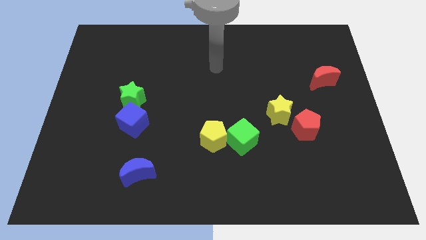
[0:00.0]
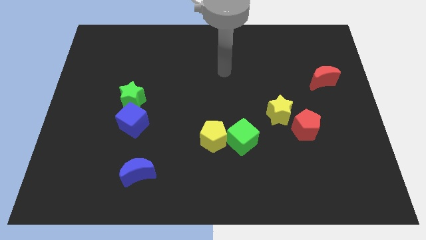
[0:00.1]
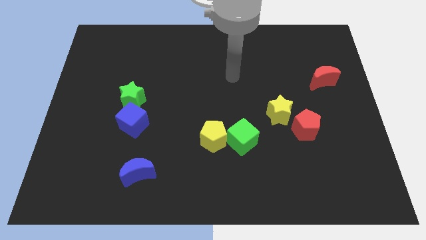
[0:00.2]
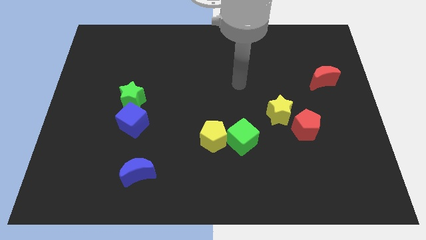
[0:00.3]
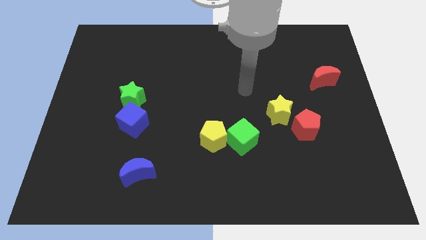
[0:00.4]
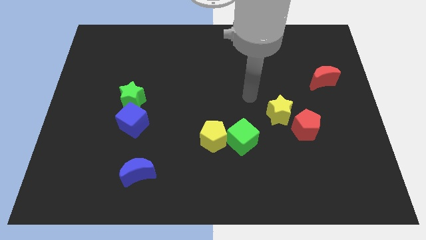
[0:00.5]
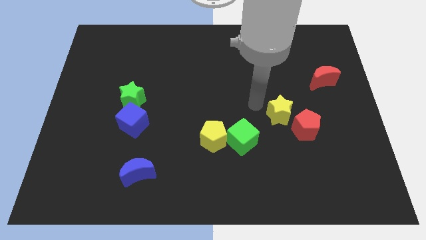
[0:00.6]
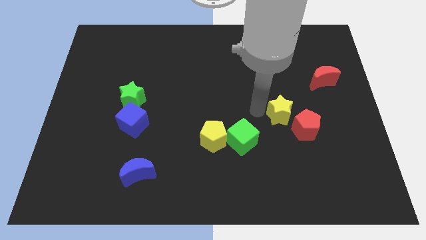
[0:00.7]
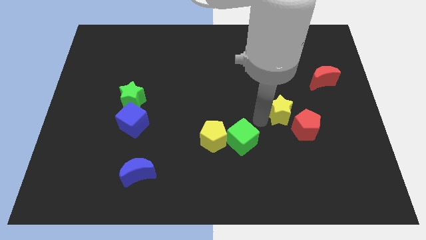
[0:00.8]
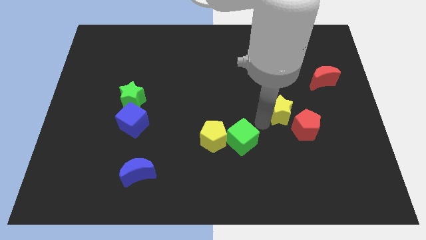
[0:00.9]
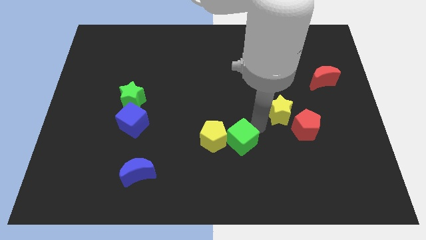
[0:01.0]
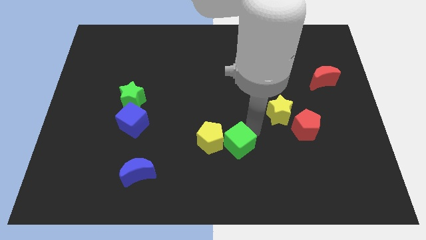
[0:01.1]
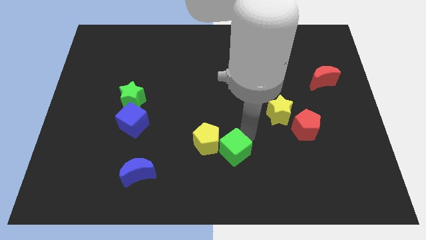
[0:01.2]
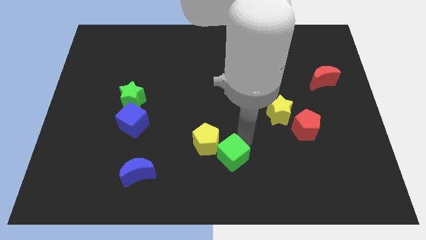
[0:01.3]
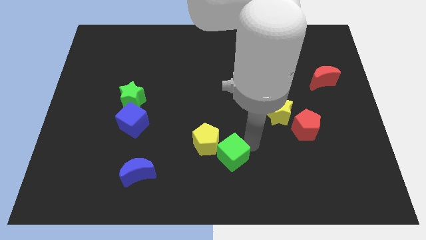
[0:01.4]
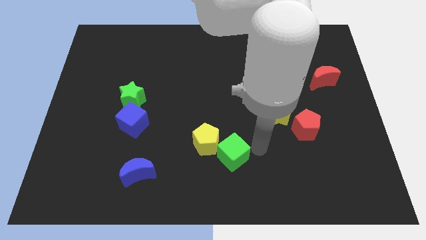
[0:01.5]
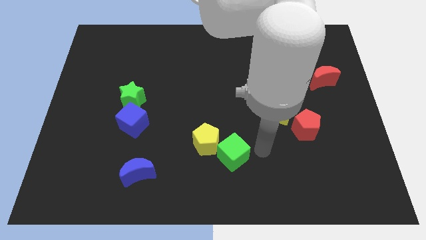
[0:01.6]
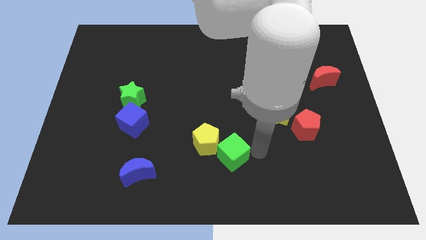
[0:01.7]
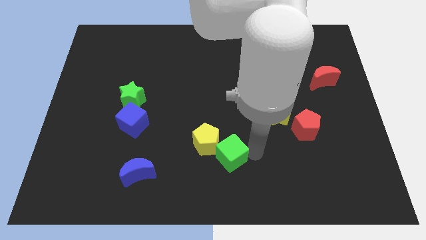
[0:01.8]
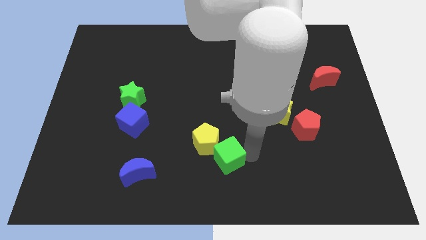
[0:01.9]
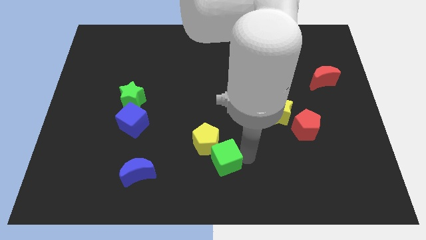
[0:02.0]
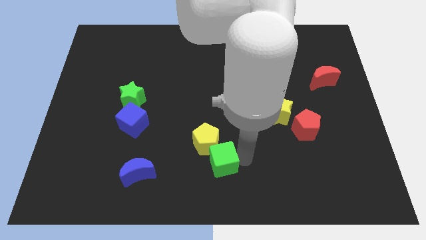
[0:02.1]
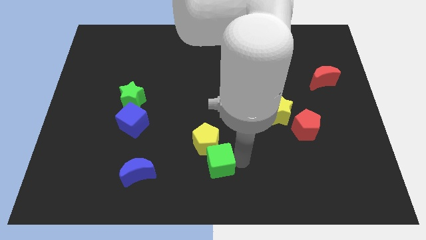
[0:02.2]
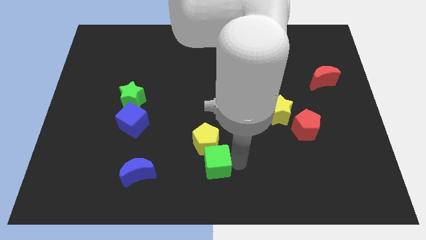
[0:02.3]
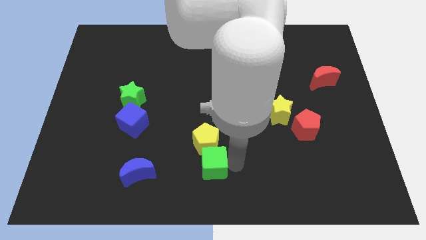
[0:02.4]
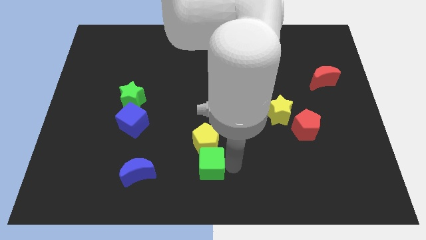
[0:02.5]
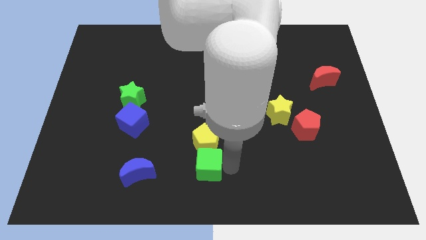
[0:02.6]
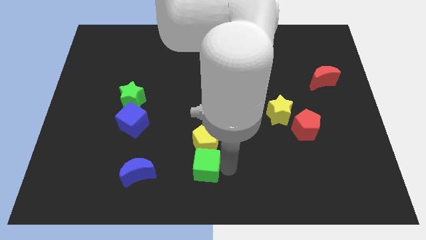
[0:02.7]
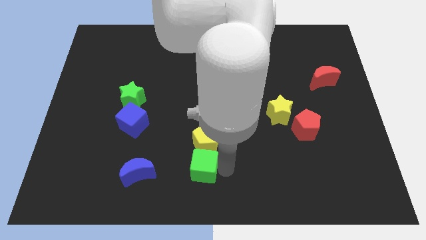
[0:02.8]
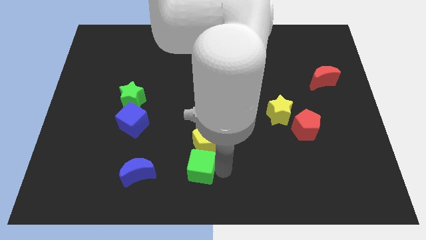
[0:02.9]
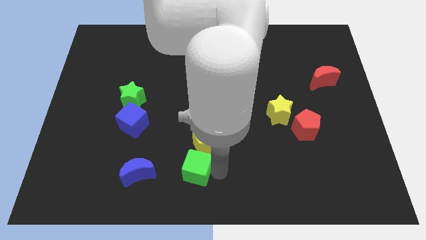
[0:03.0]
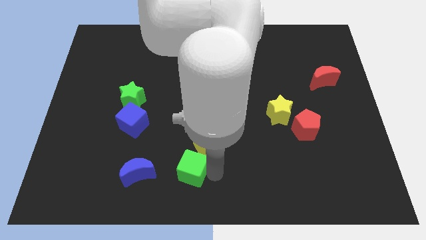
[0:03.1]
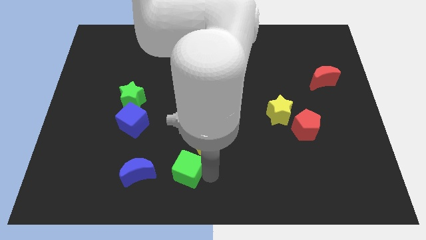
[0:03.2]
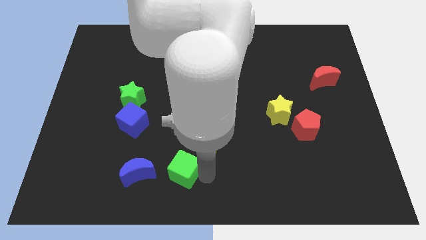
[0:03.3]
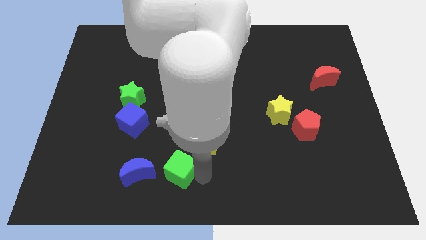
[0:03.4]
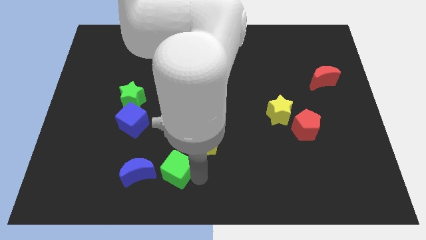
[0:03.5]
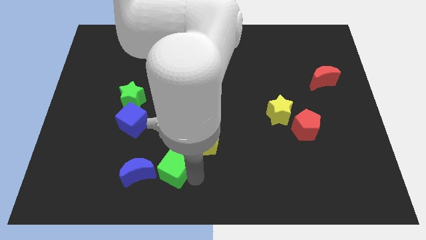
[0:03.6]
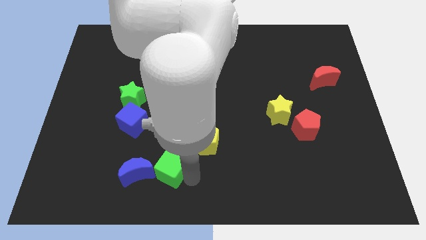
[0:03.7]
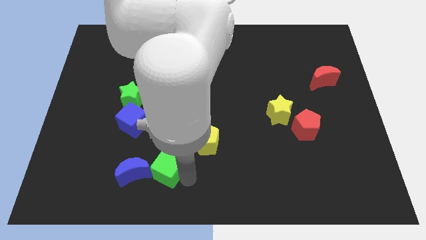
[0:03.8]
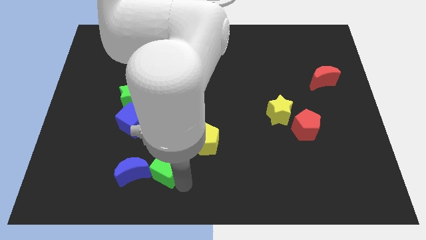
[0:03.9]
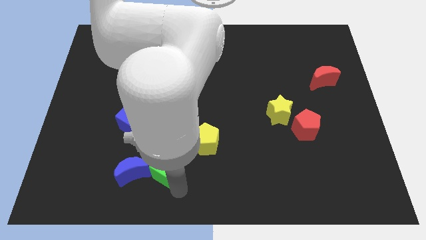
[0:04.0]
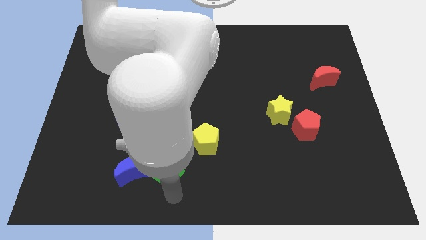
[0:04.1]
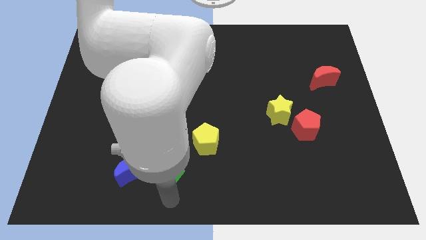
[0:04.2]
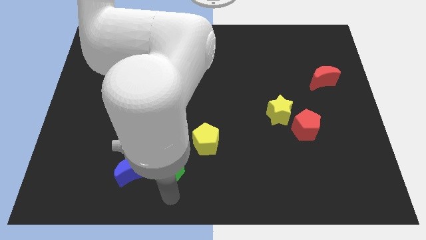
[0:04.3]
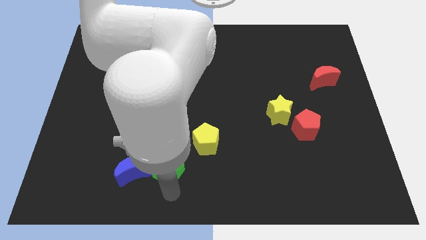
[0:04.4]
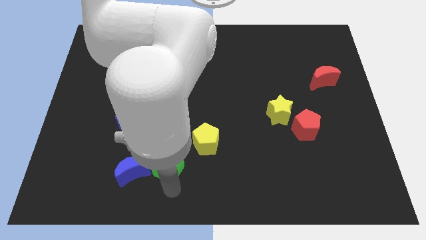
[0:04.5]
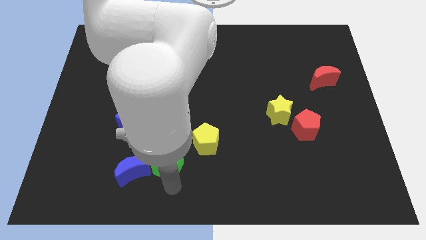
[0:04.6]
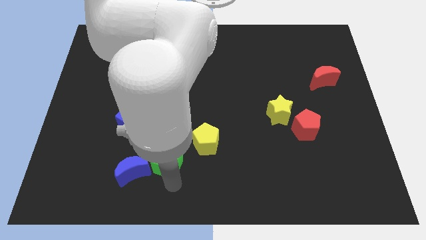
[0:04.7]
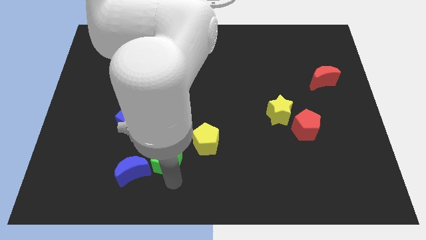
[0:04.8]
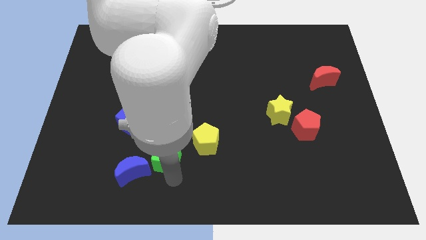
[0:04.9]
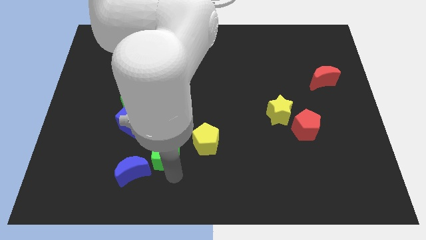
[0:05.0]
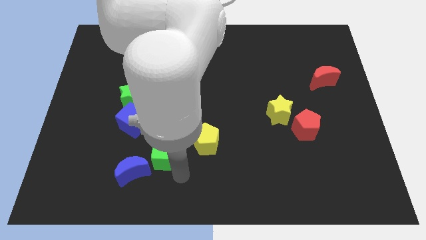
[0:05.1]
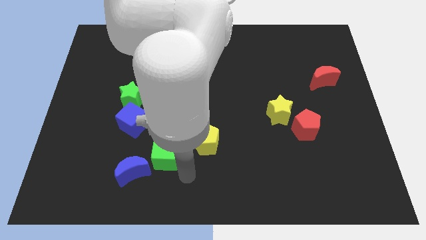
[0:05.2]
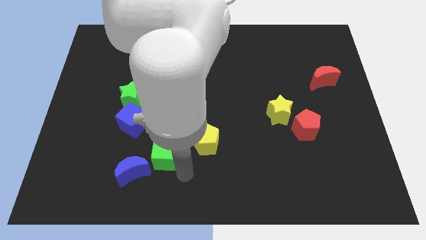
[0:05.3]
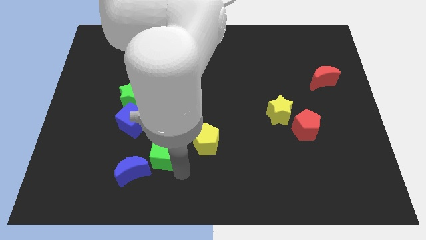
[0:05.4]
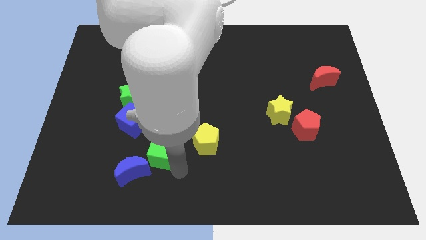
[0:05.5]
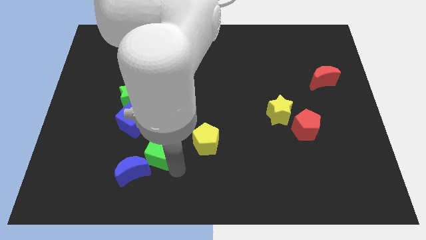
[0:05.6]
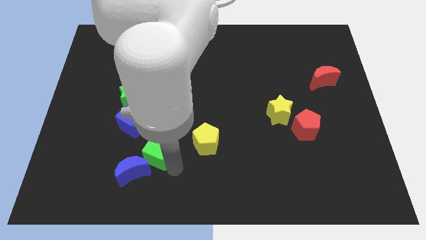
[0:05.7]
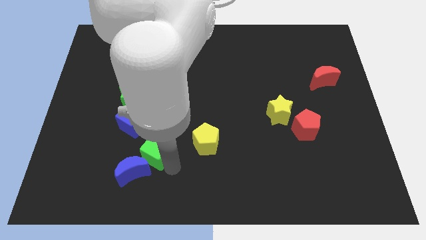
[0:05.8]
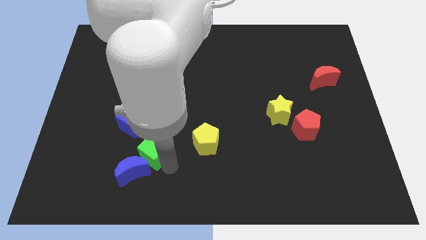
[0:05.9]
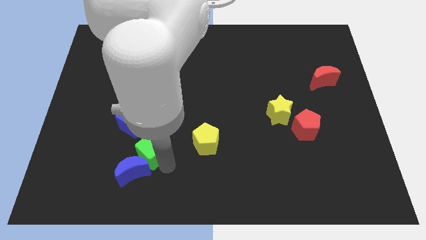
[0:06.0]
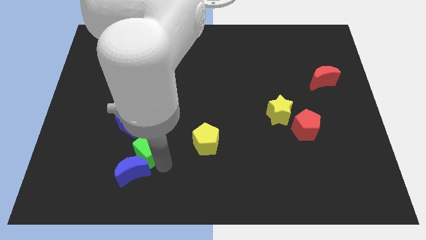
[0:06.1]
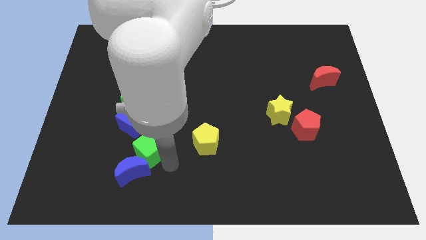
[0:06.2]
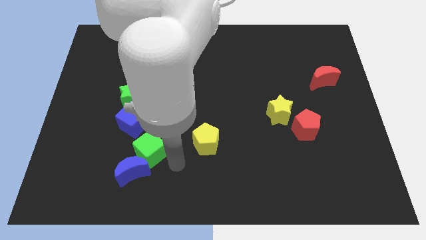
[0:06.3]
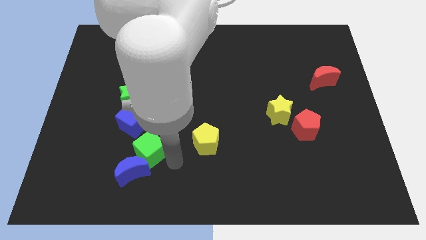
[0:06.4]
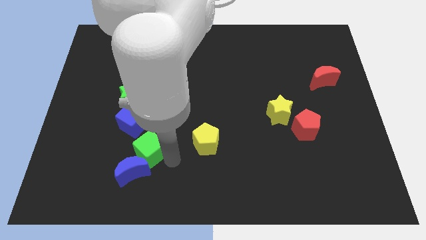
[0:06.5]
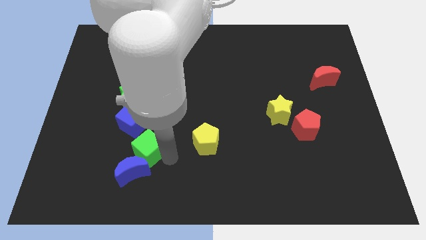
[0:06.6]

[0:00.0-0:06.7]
push the green cube to the left

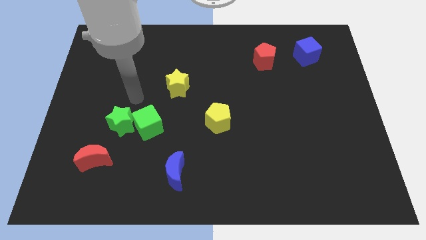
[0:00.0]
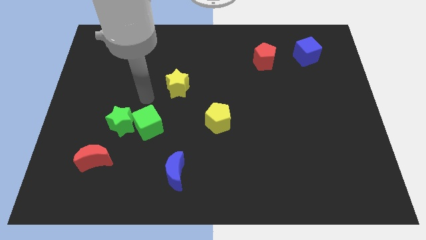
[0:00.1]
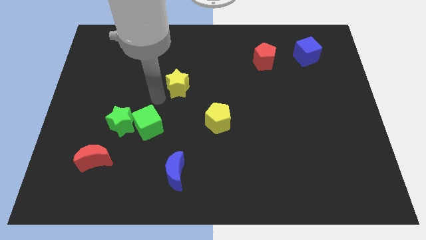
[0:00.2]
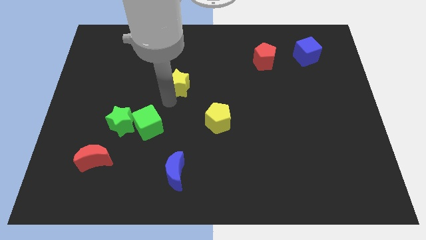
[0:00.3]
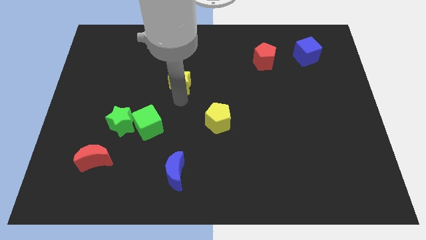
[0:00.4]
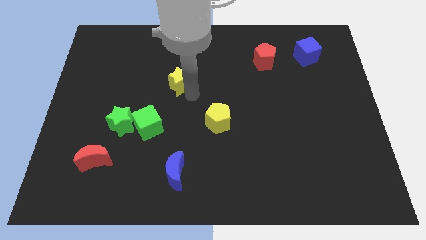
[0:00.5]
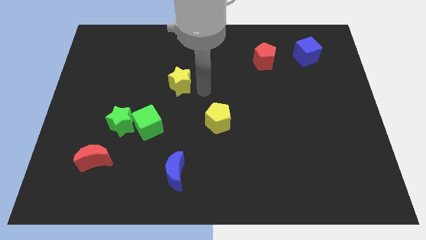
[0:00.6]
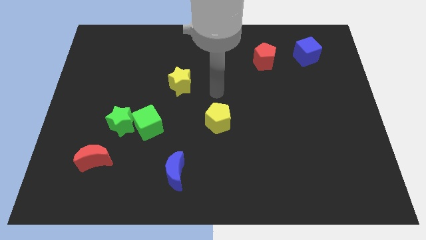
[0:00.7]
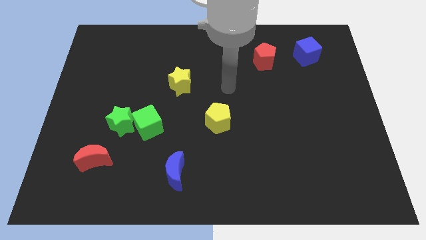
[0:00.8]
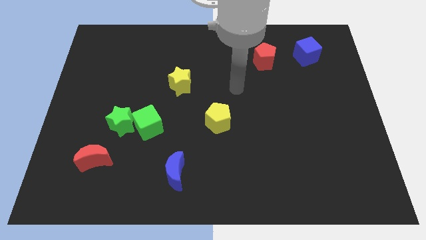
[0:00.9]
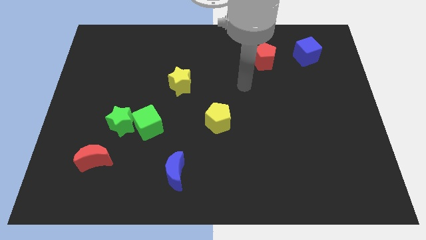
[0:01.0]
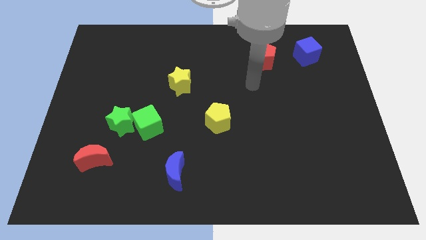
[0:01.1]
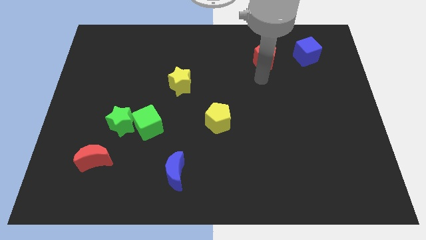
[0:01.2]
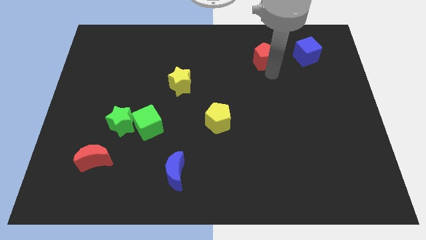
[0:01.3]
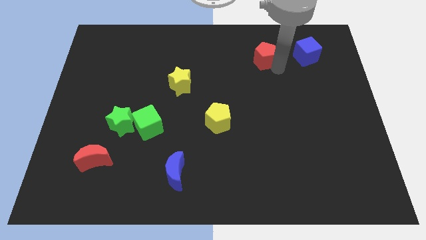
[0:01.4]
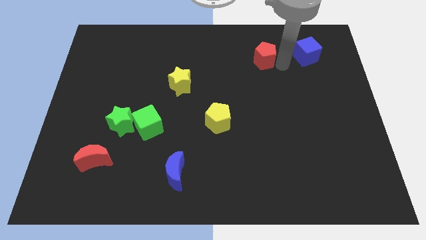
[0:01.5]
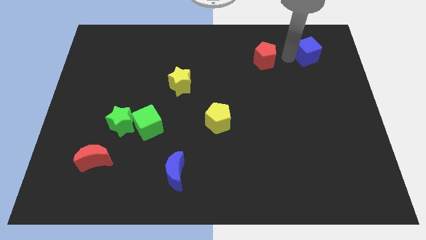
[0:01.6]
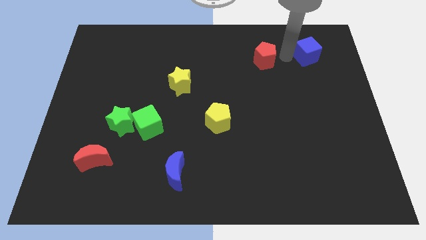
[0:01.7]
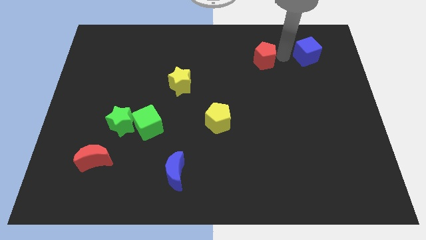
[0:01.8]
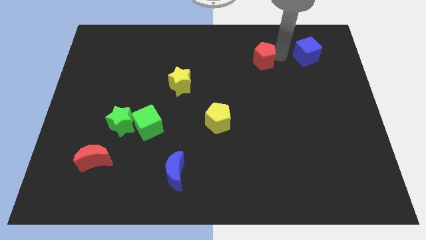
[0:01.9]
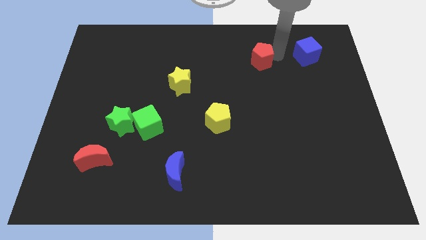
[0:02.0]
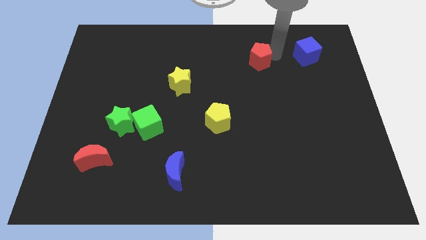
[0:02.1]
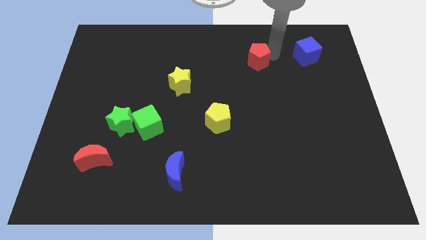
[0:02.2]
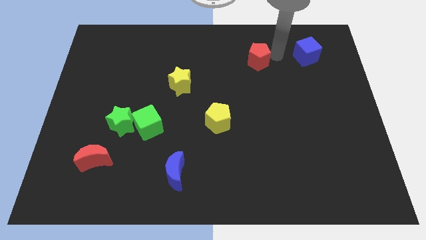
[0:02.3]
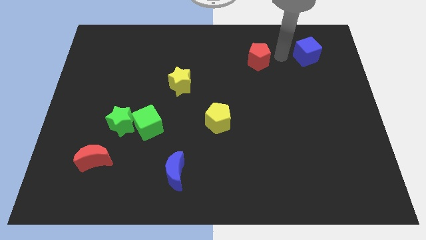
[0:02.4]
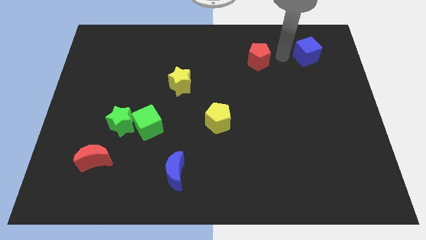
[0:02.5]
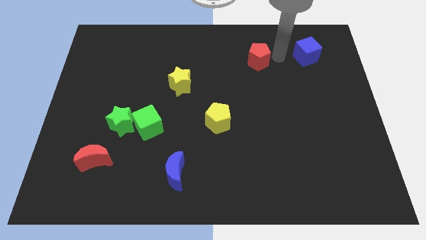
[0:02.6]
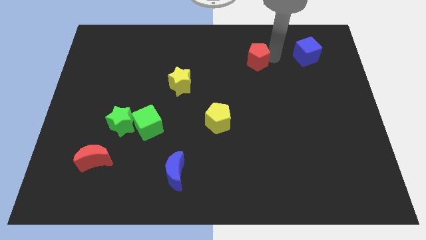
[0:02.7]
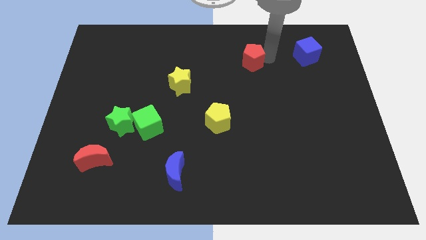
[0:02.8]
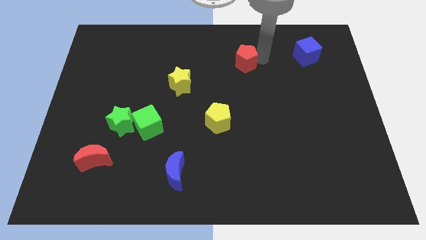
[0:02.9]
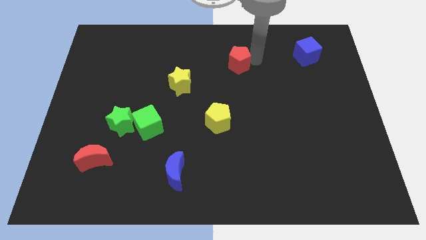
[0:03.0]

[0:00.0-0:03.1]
move the red pentagon a little bit left
